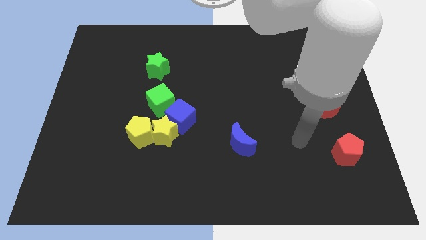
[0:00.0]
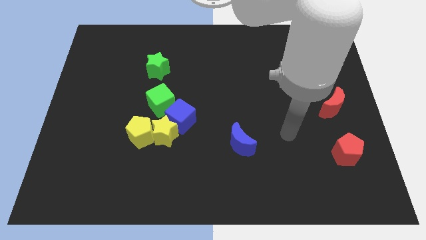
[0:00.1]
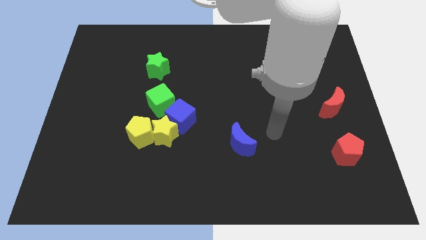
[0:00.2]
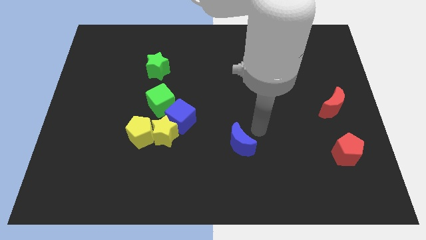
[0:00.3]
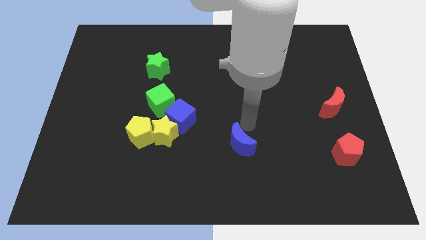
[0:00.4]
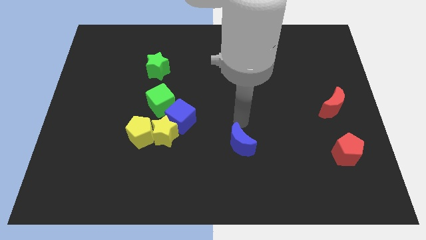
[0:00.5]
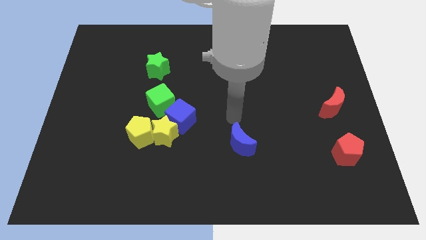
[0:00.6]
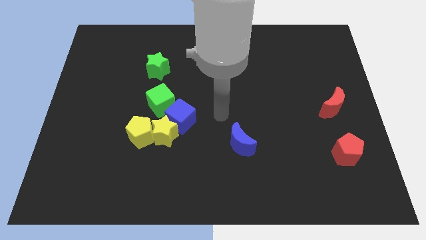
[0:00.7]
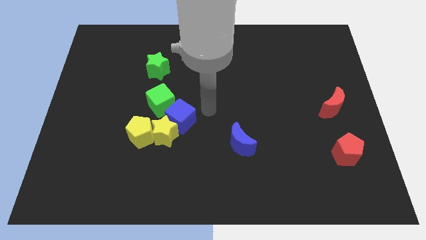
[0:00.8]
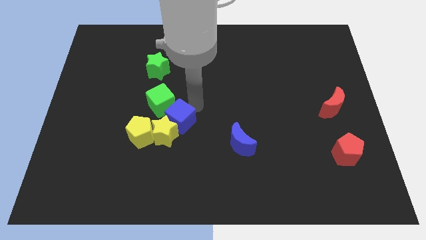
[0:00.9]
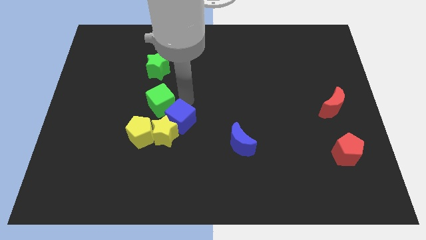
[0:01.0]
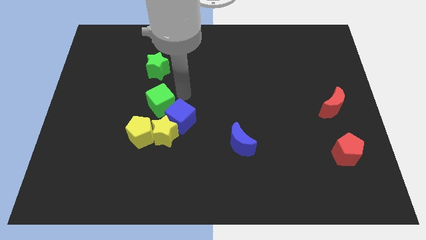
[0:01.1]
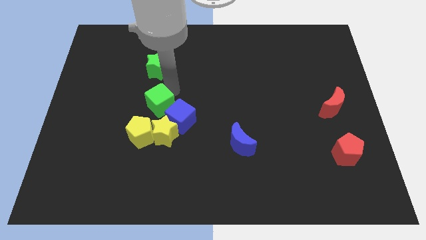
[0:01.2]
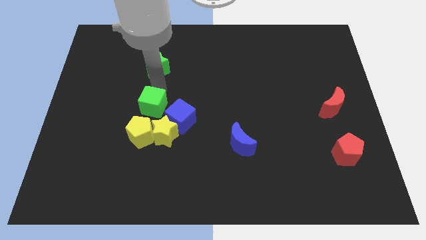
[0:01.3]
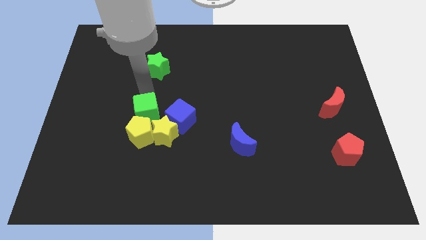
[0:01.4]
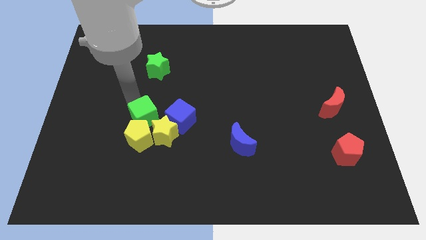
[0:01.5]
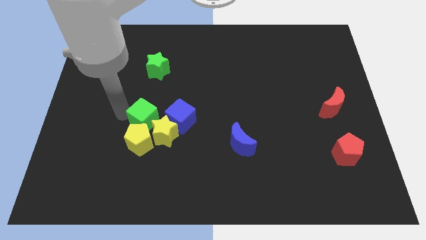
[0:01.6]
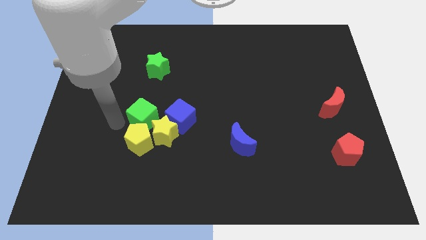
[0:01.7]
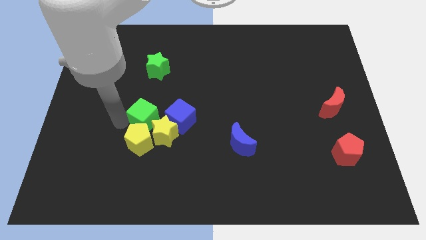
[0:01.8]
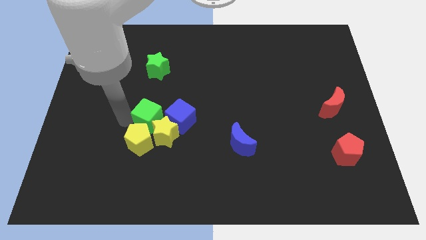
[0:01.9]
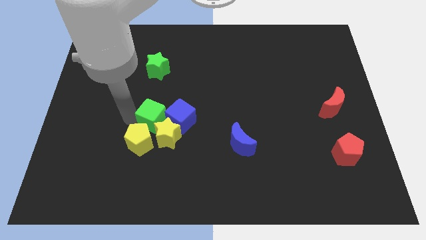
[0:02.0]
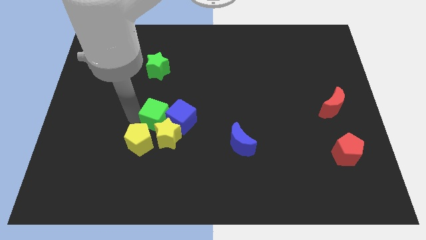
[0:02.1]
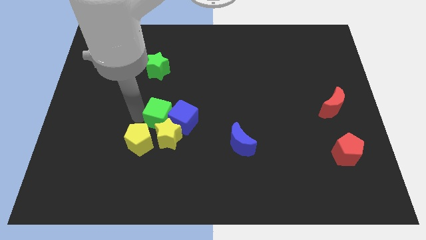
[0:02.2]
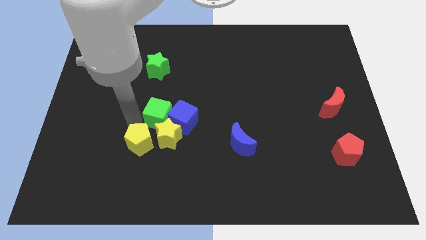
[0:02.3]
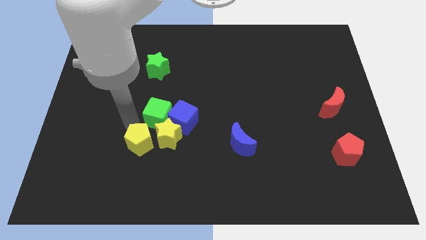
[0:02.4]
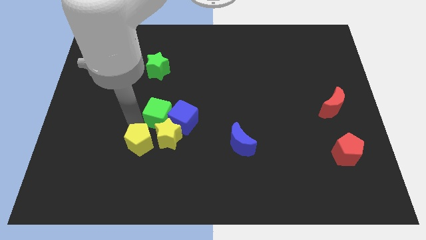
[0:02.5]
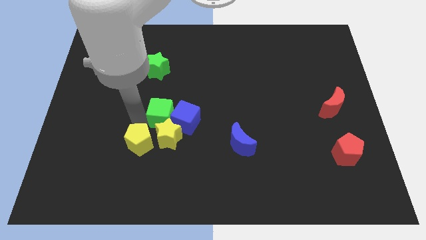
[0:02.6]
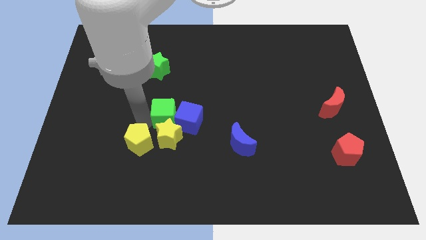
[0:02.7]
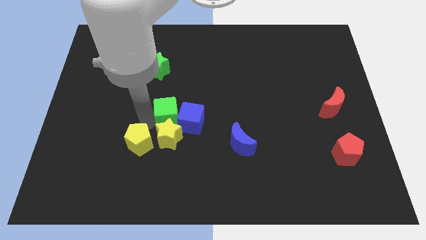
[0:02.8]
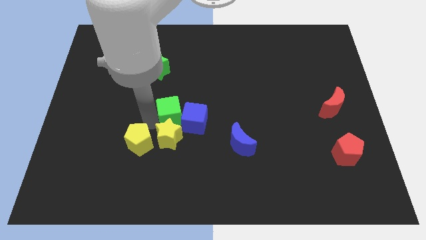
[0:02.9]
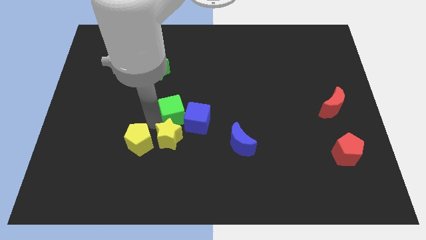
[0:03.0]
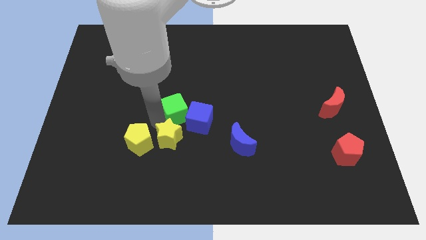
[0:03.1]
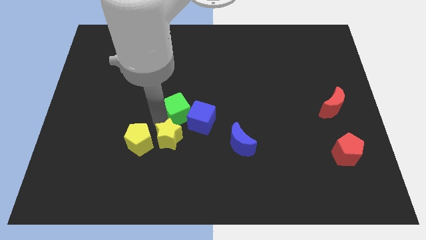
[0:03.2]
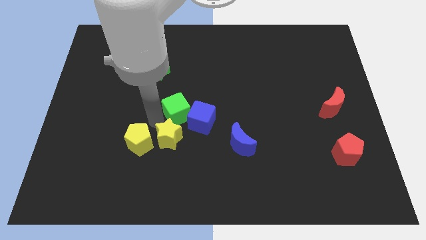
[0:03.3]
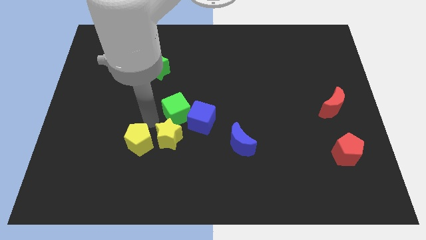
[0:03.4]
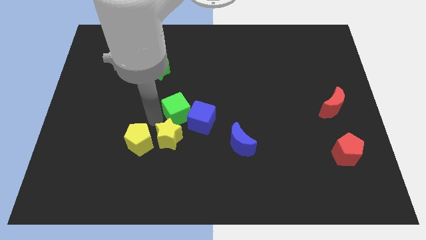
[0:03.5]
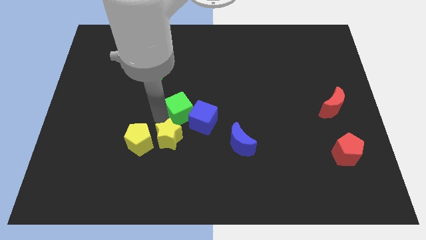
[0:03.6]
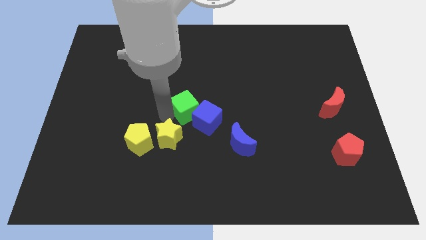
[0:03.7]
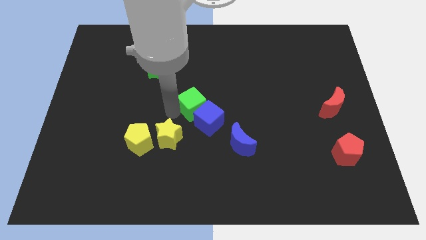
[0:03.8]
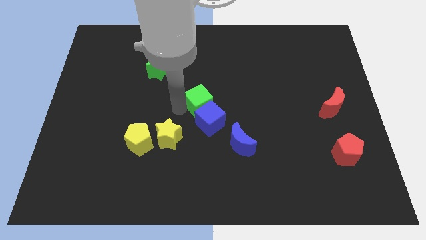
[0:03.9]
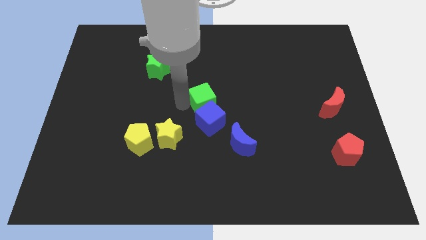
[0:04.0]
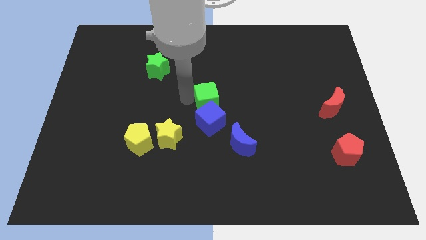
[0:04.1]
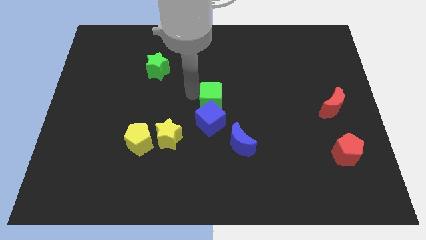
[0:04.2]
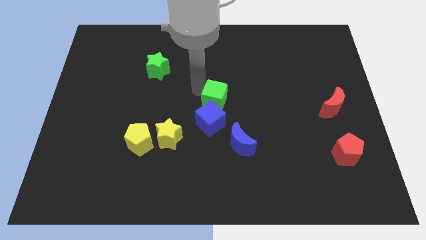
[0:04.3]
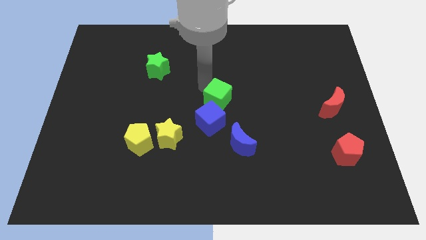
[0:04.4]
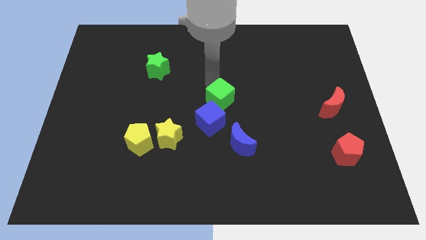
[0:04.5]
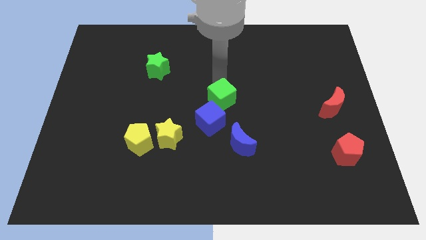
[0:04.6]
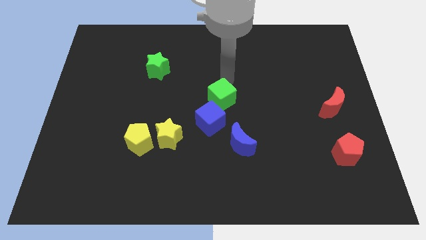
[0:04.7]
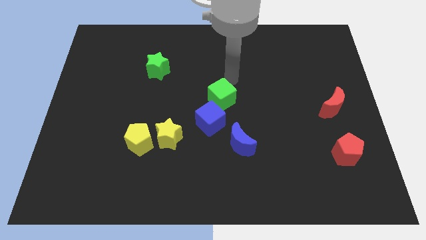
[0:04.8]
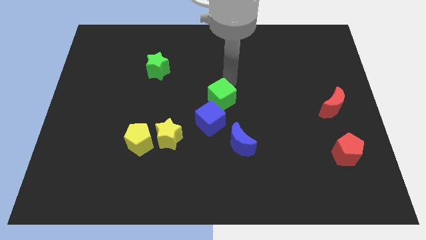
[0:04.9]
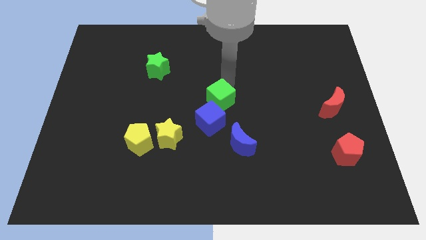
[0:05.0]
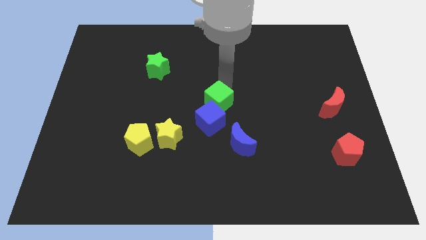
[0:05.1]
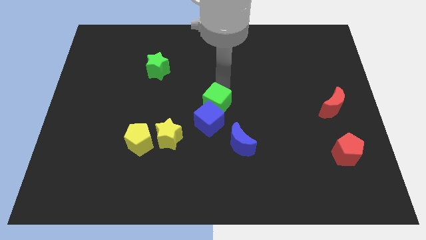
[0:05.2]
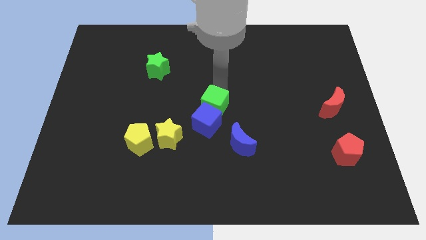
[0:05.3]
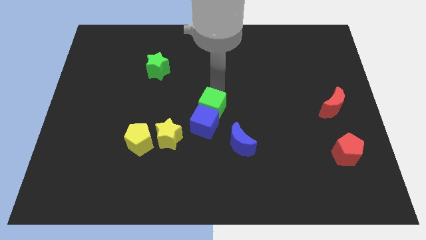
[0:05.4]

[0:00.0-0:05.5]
push the green cube a little bit down and right diagonally

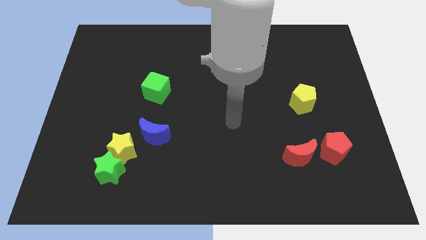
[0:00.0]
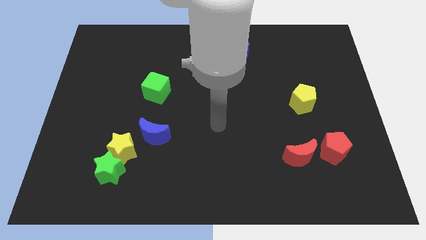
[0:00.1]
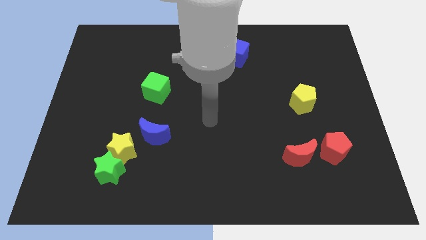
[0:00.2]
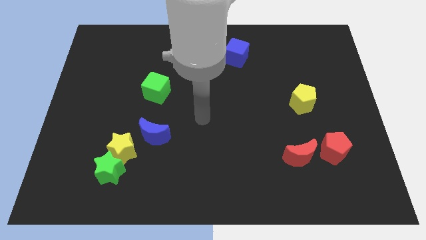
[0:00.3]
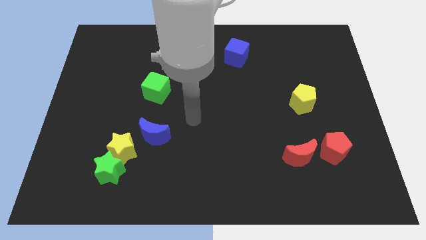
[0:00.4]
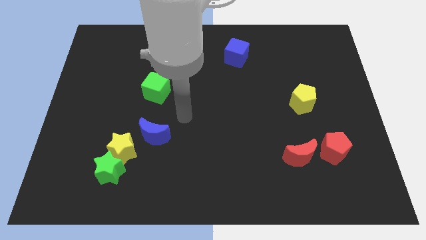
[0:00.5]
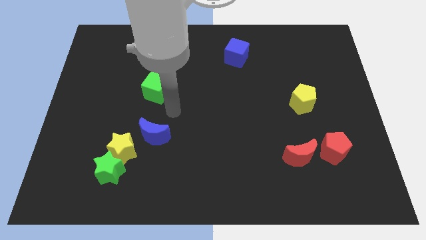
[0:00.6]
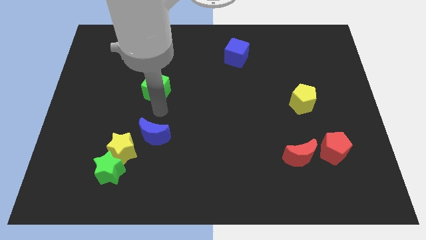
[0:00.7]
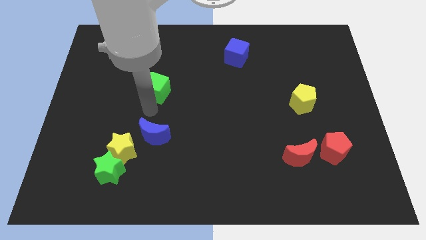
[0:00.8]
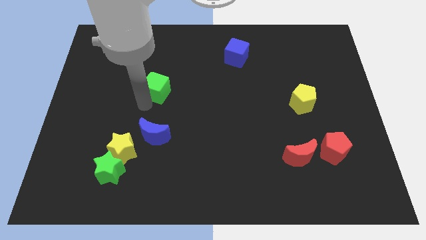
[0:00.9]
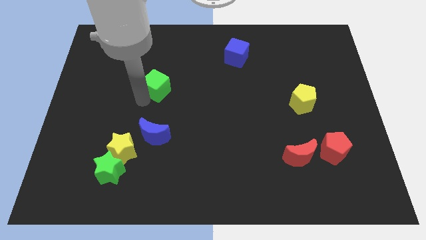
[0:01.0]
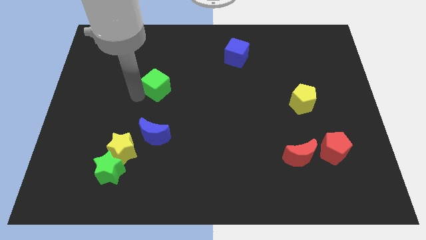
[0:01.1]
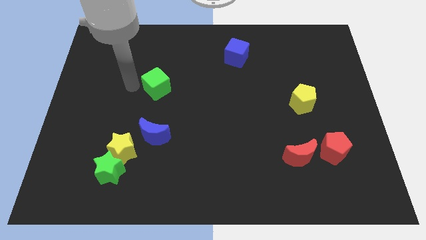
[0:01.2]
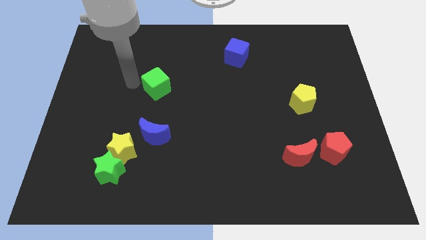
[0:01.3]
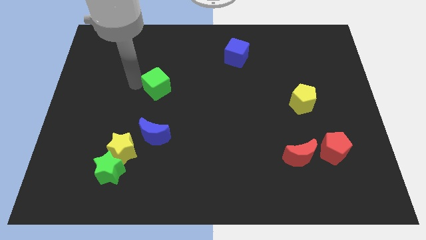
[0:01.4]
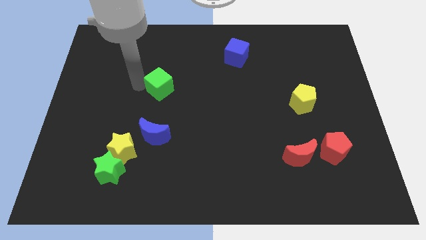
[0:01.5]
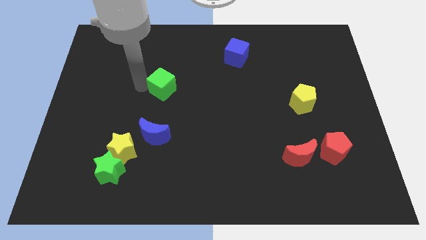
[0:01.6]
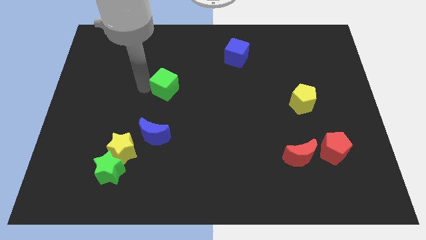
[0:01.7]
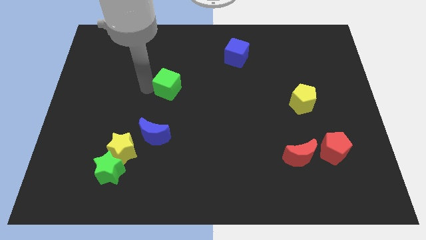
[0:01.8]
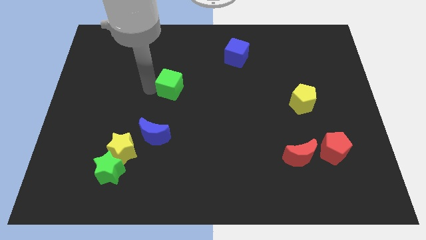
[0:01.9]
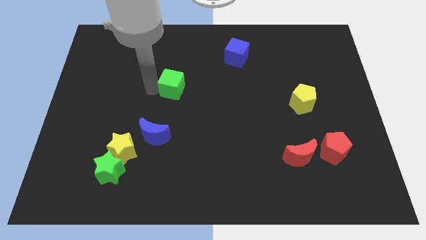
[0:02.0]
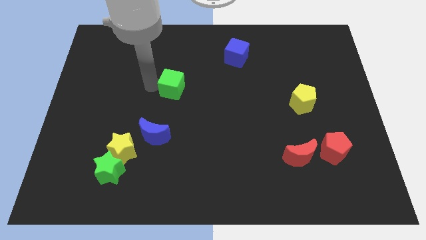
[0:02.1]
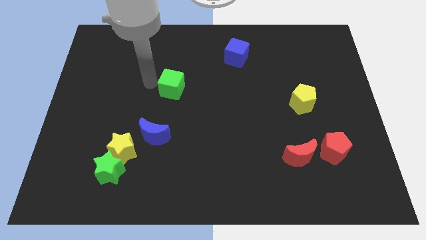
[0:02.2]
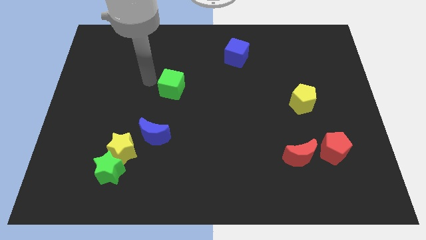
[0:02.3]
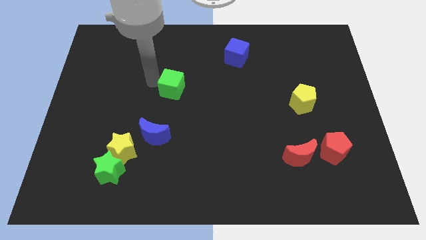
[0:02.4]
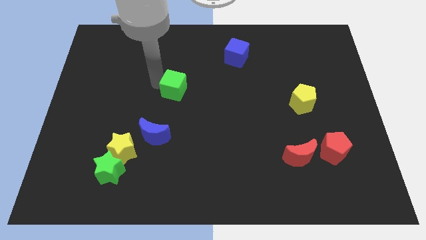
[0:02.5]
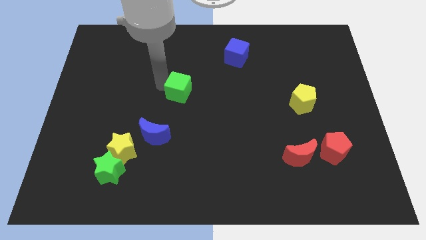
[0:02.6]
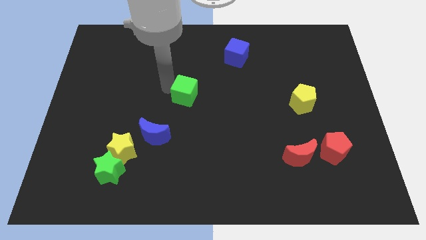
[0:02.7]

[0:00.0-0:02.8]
slightly move the green cube to the right
